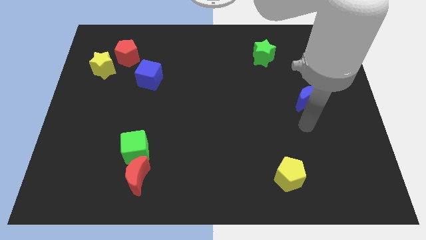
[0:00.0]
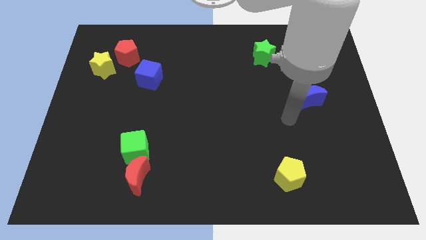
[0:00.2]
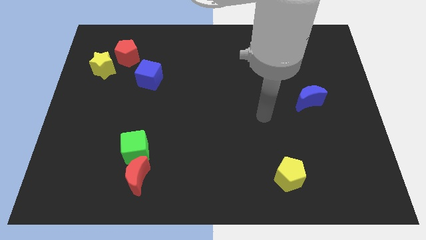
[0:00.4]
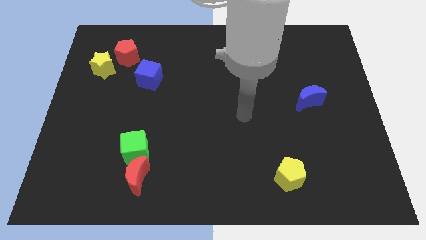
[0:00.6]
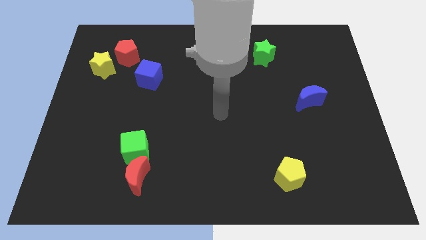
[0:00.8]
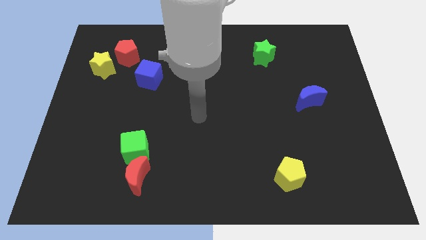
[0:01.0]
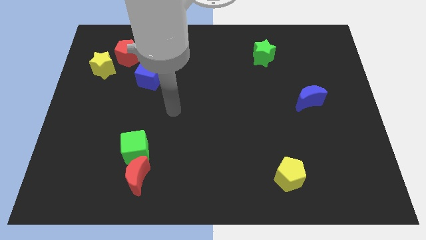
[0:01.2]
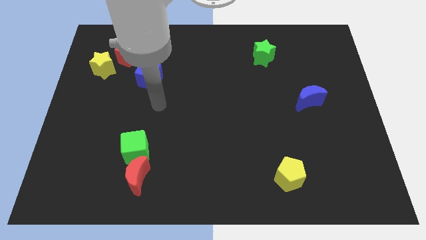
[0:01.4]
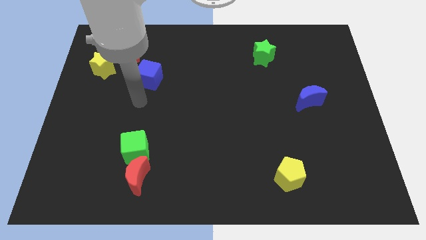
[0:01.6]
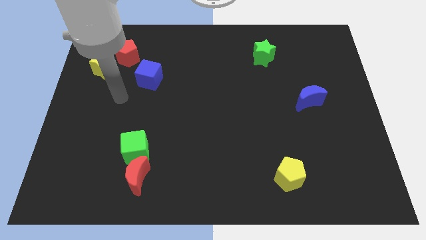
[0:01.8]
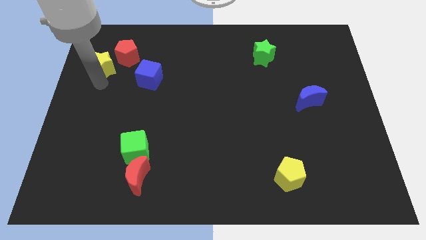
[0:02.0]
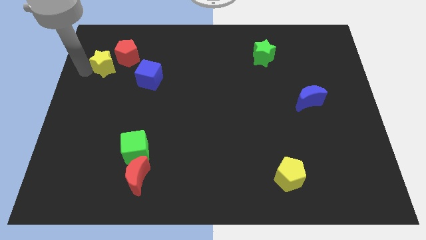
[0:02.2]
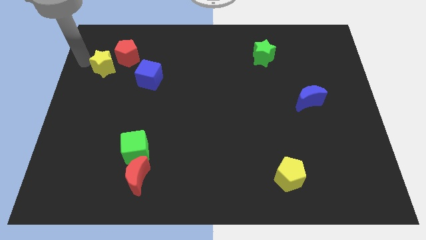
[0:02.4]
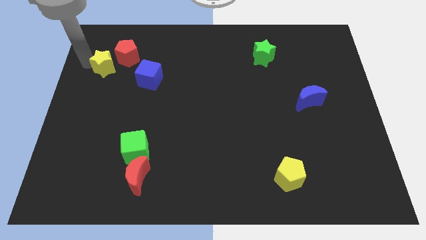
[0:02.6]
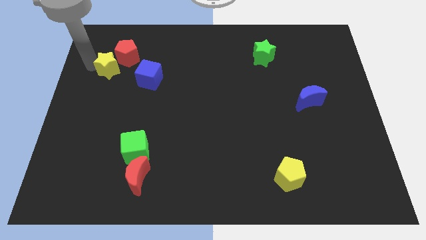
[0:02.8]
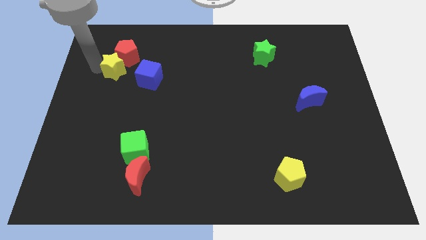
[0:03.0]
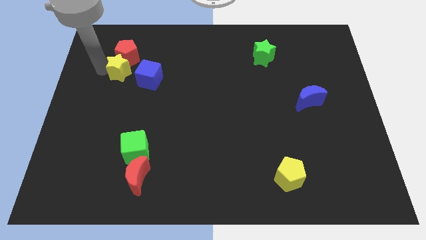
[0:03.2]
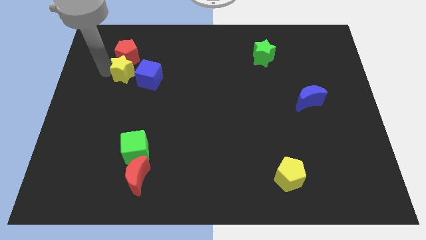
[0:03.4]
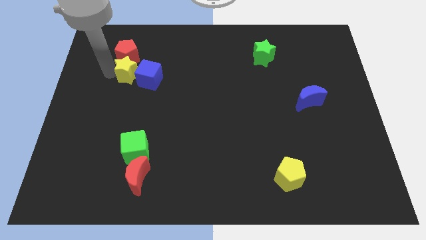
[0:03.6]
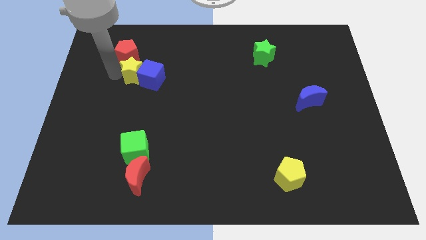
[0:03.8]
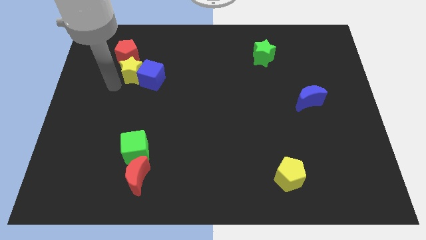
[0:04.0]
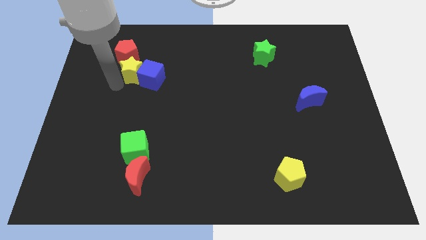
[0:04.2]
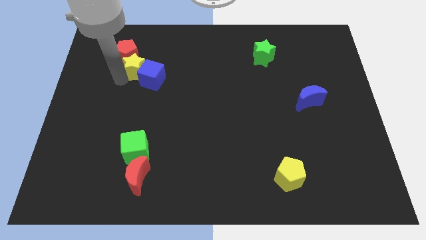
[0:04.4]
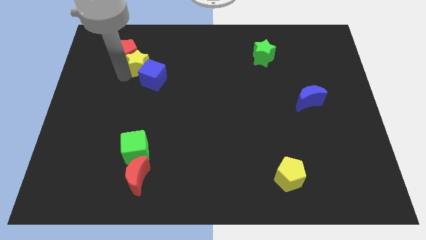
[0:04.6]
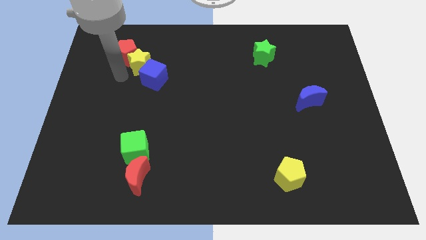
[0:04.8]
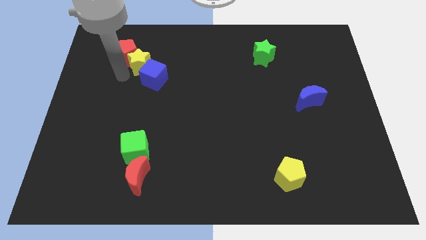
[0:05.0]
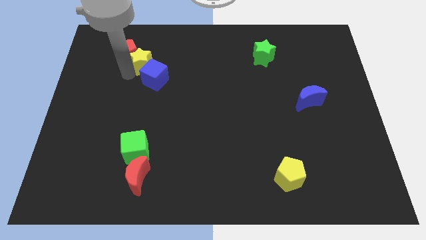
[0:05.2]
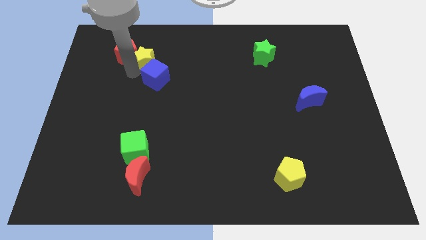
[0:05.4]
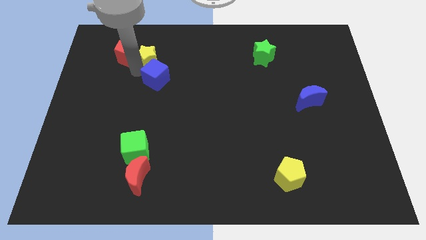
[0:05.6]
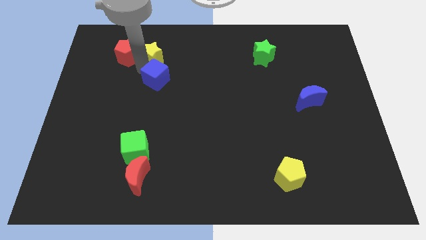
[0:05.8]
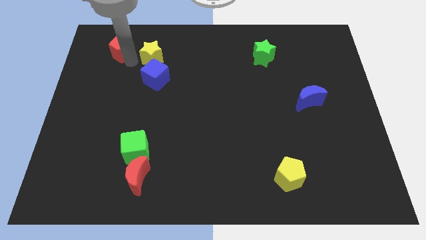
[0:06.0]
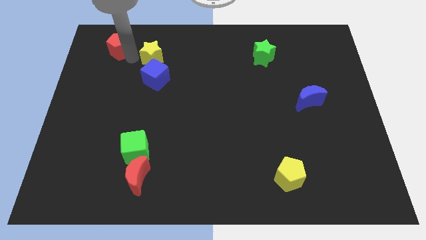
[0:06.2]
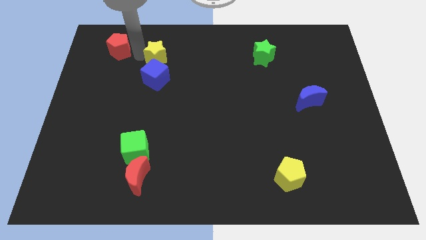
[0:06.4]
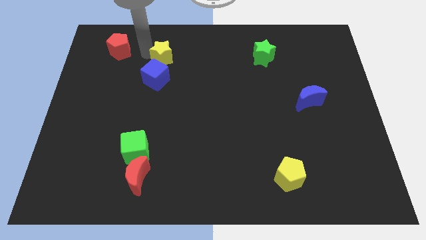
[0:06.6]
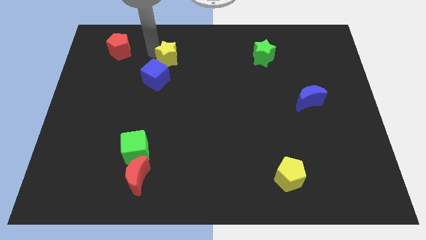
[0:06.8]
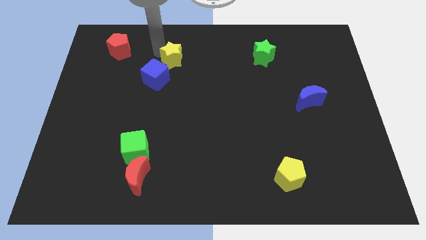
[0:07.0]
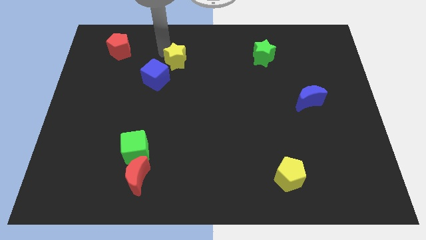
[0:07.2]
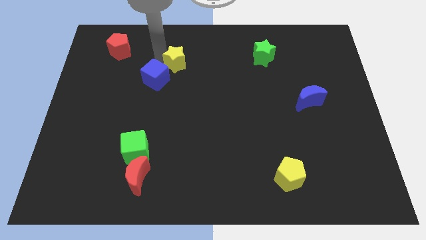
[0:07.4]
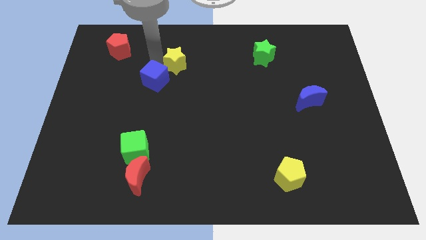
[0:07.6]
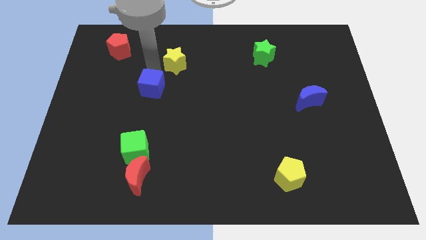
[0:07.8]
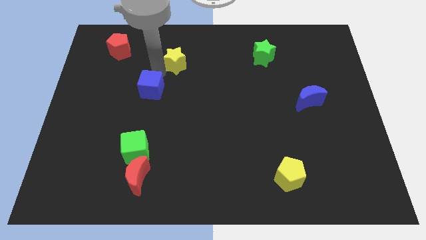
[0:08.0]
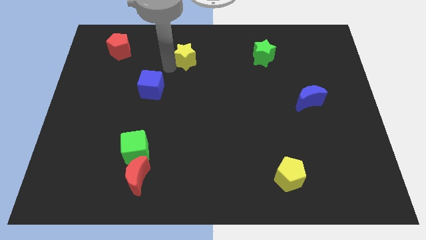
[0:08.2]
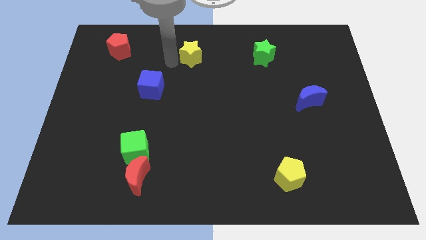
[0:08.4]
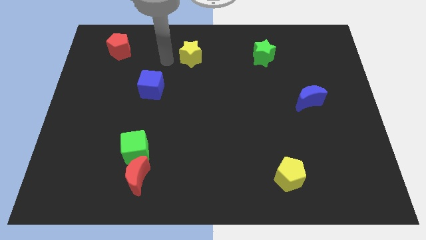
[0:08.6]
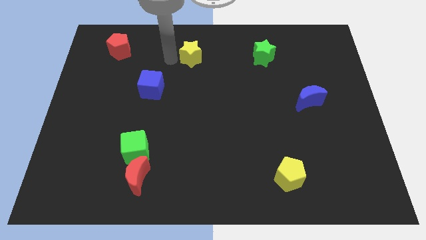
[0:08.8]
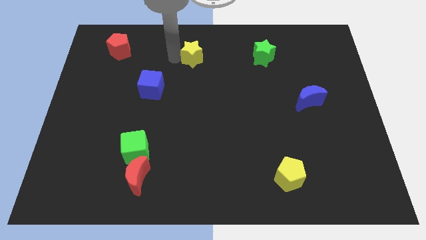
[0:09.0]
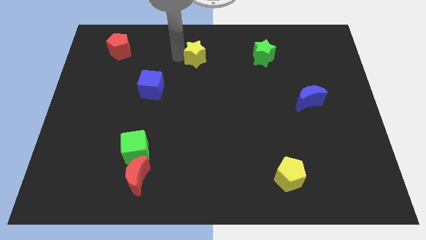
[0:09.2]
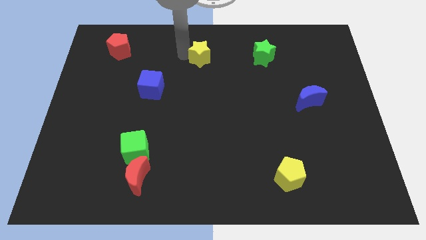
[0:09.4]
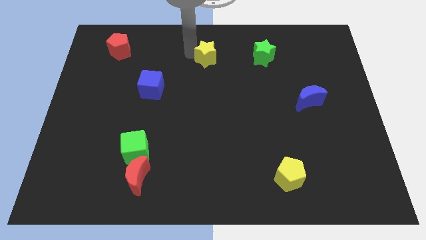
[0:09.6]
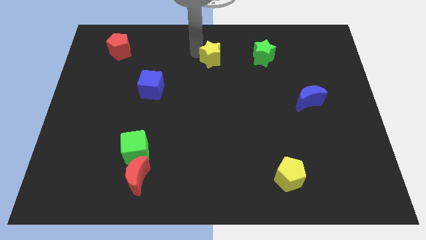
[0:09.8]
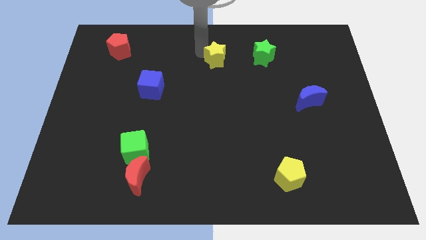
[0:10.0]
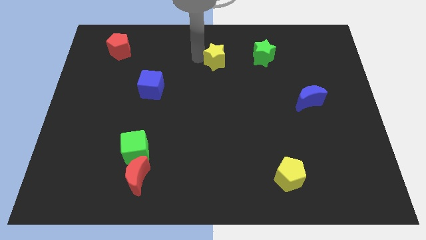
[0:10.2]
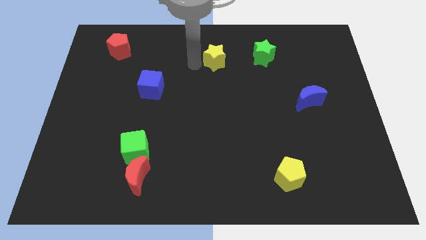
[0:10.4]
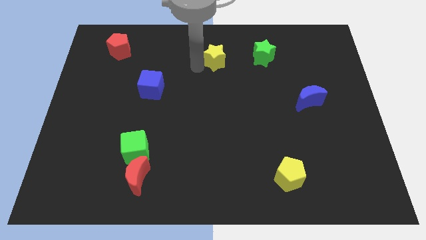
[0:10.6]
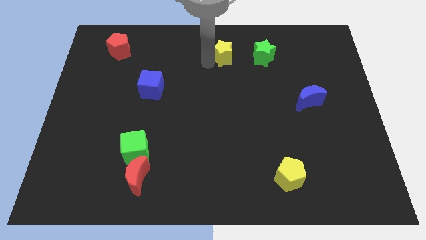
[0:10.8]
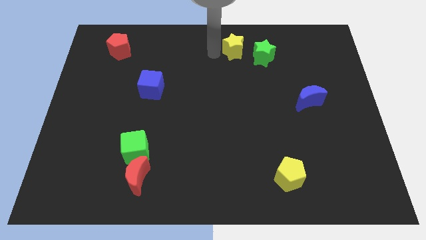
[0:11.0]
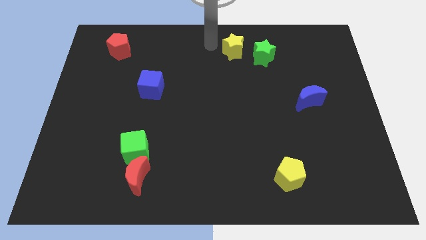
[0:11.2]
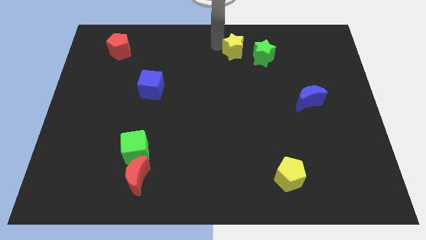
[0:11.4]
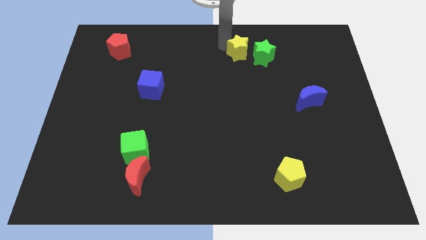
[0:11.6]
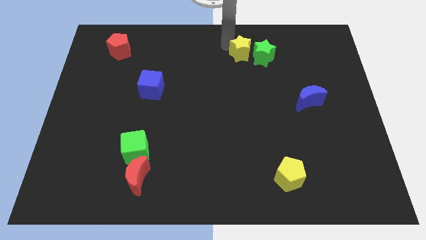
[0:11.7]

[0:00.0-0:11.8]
put the yellow star to the green star

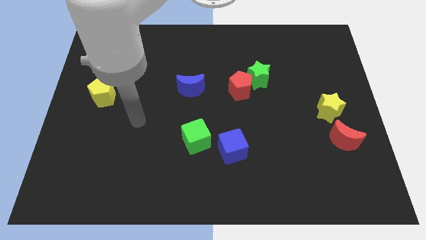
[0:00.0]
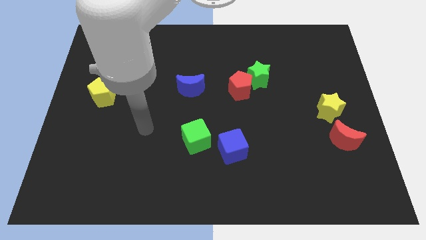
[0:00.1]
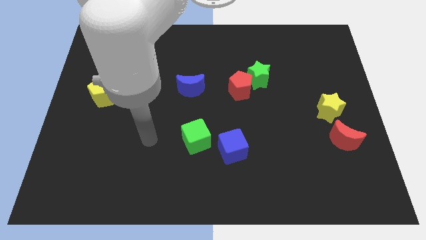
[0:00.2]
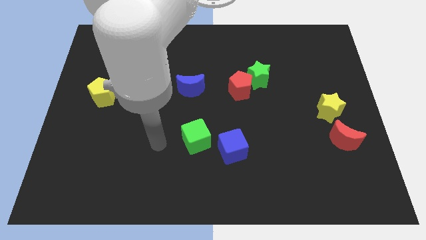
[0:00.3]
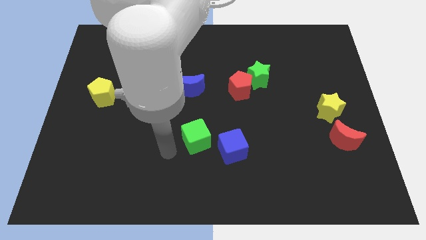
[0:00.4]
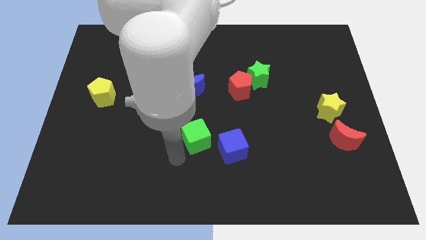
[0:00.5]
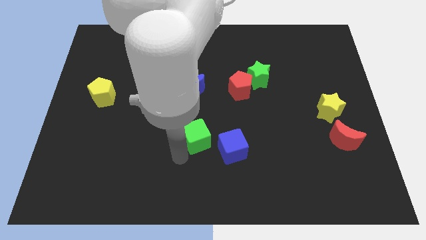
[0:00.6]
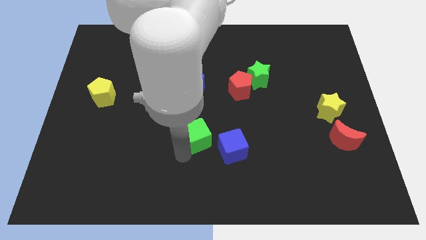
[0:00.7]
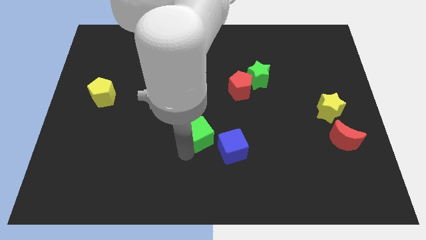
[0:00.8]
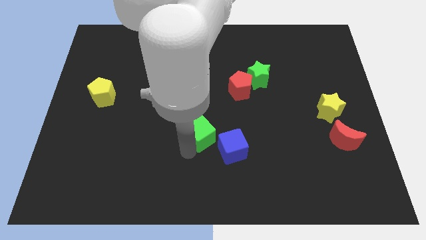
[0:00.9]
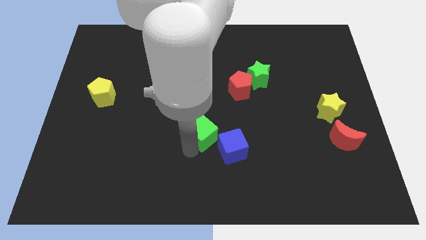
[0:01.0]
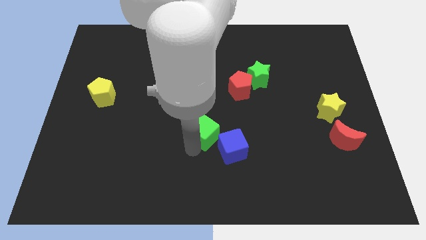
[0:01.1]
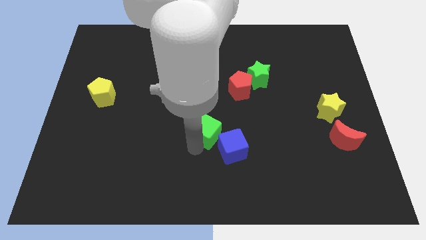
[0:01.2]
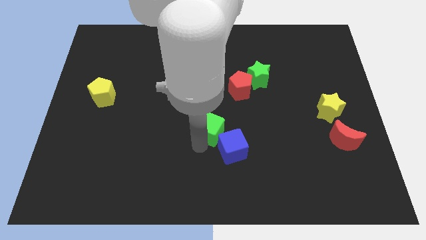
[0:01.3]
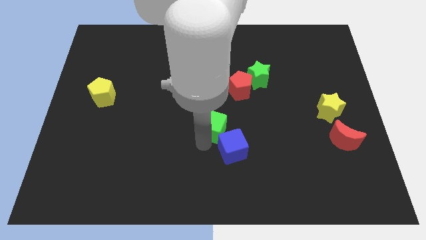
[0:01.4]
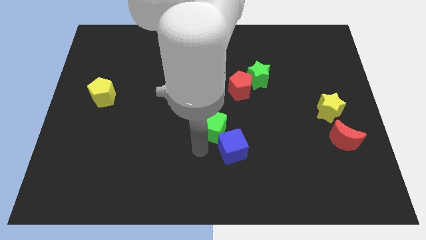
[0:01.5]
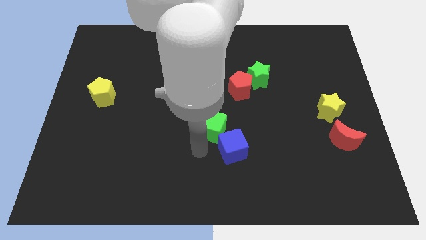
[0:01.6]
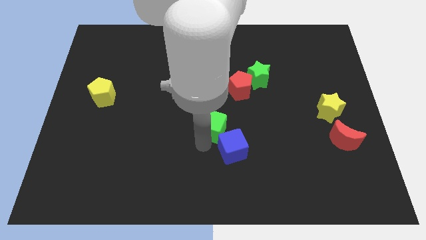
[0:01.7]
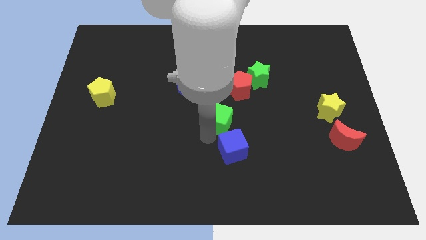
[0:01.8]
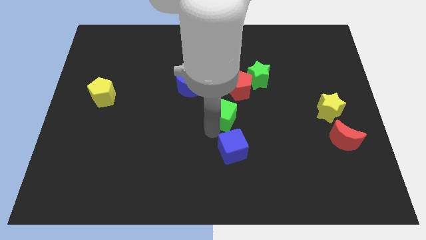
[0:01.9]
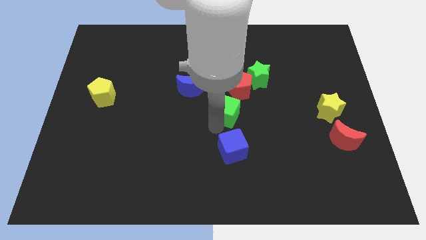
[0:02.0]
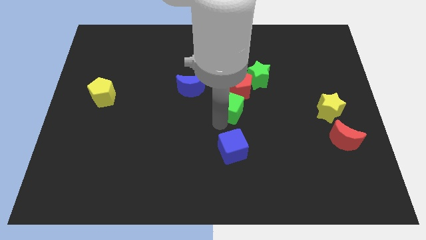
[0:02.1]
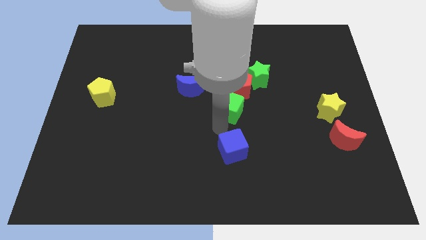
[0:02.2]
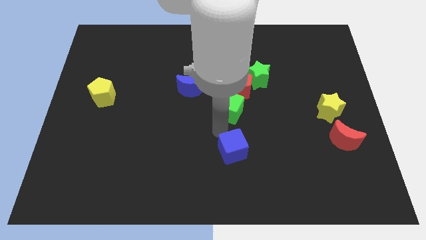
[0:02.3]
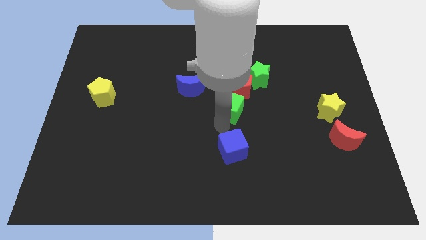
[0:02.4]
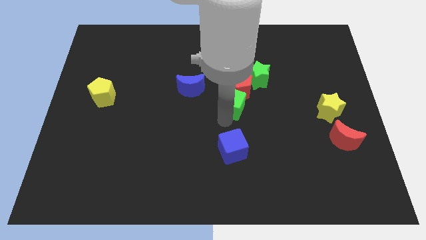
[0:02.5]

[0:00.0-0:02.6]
move the green cube close to the red pentagon
